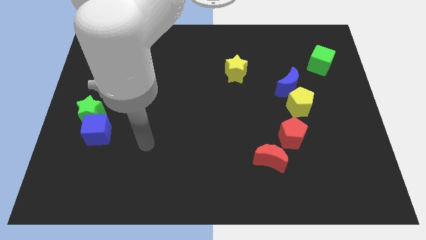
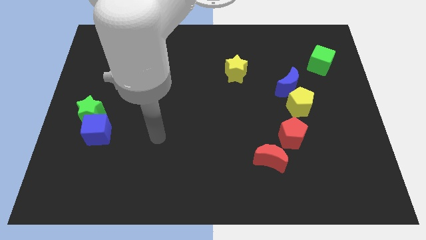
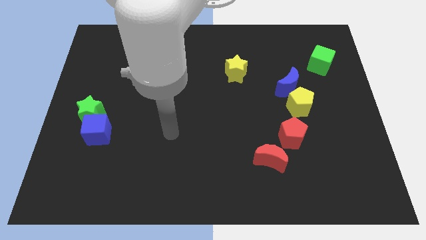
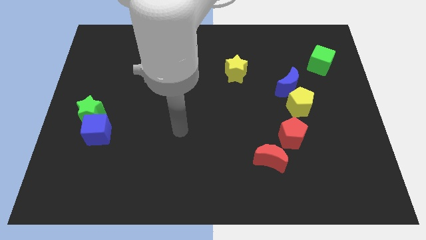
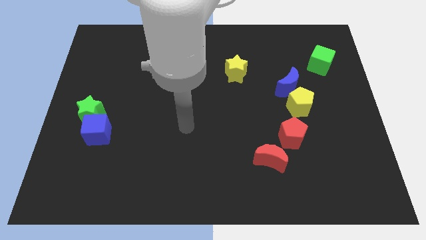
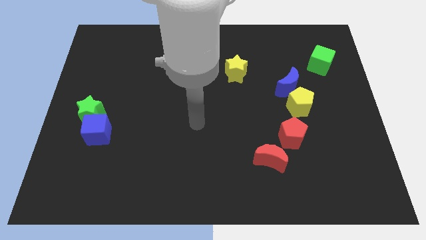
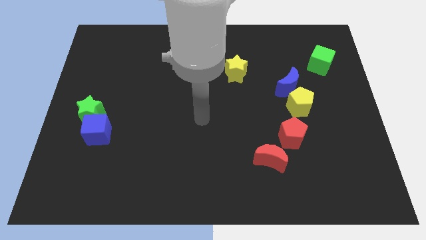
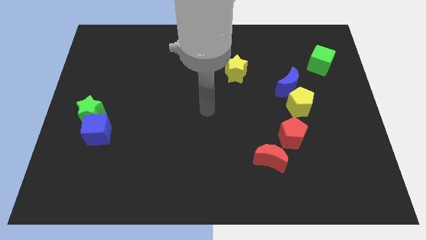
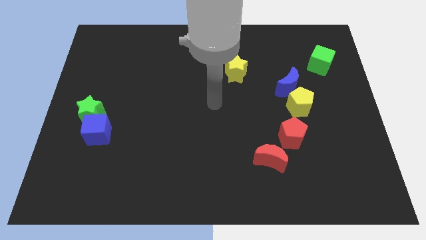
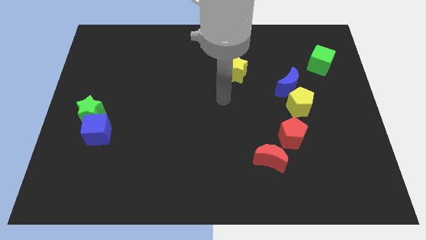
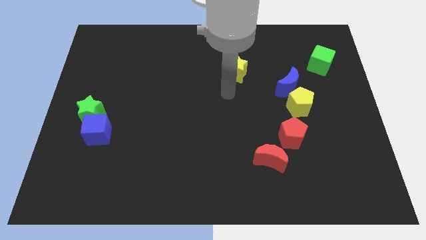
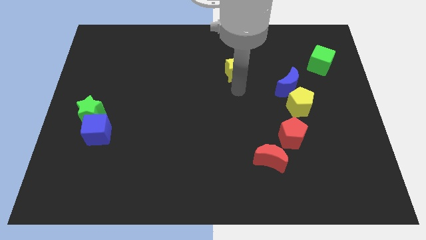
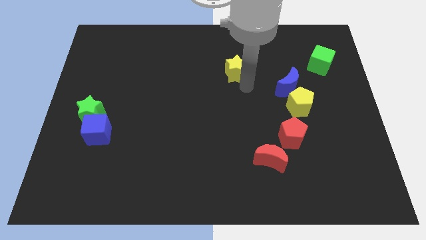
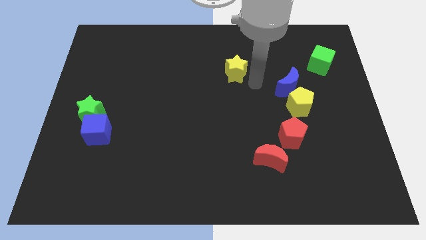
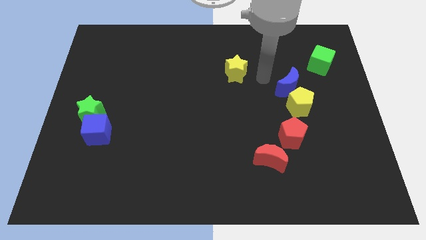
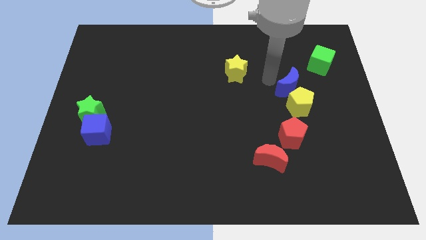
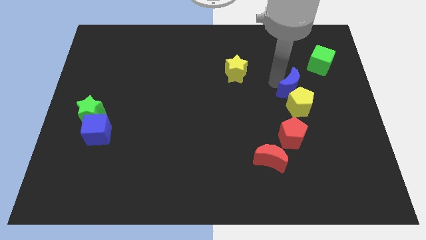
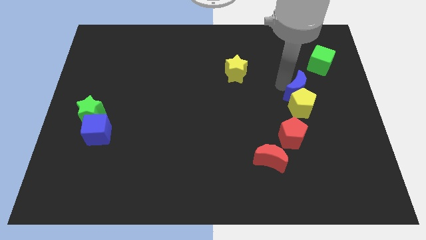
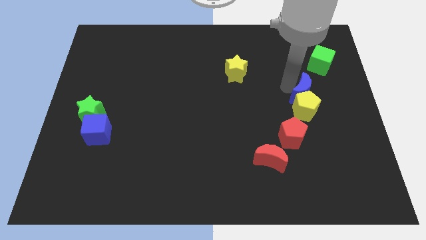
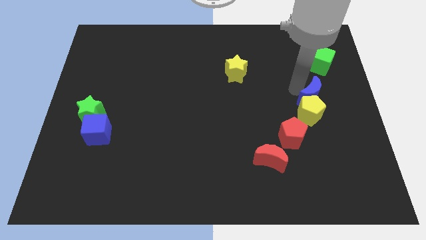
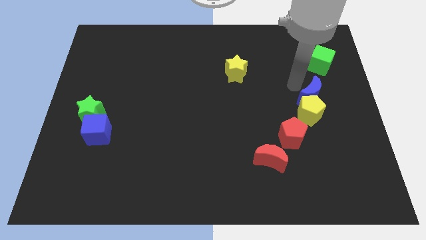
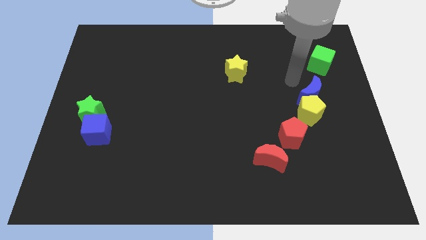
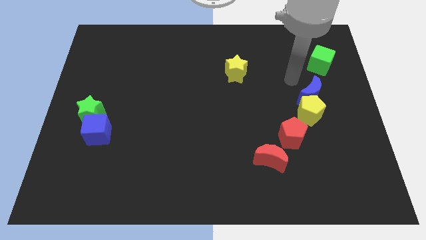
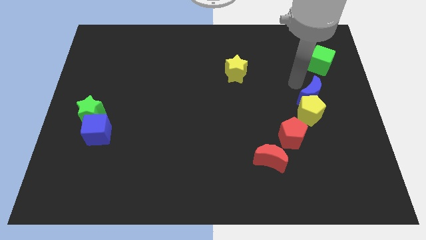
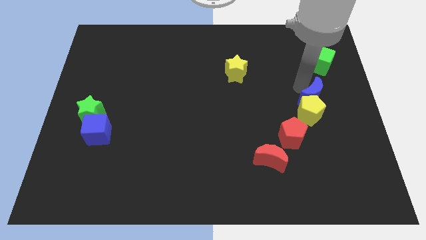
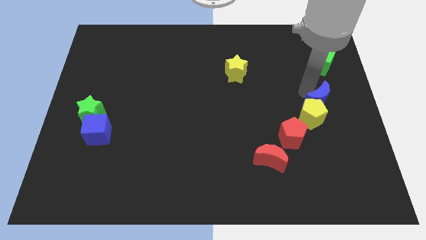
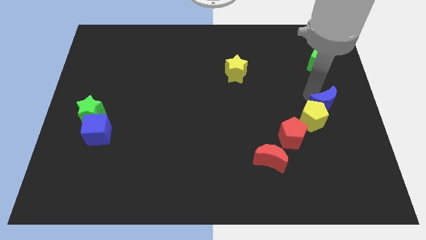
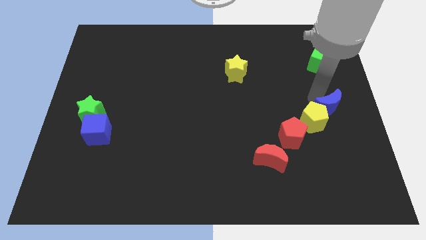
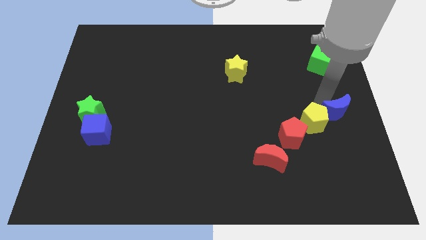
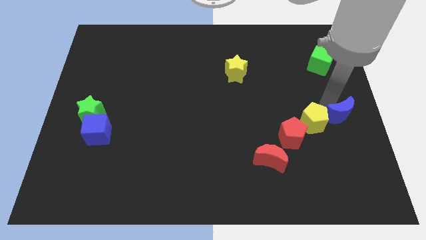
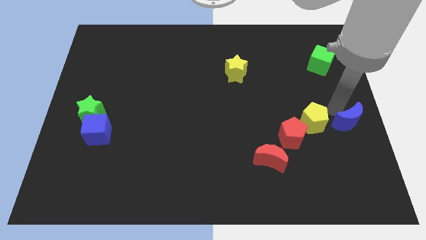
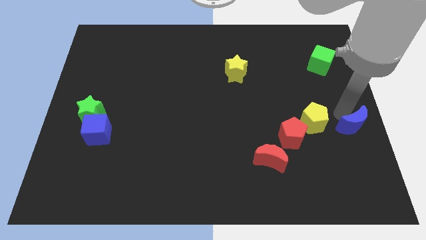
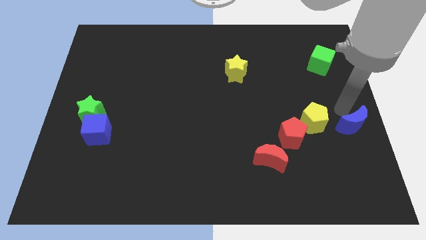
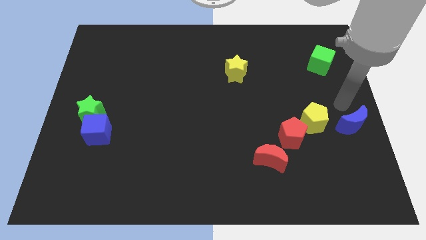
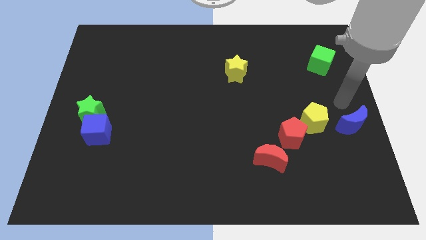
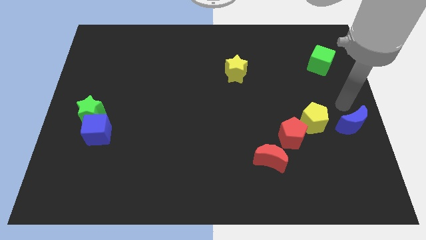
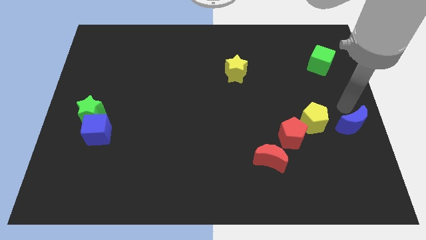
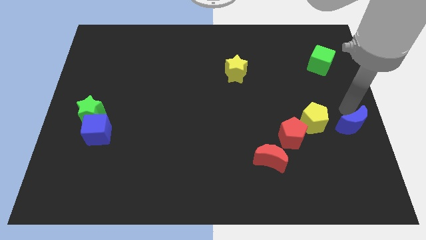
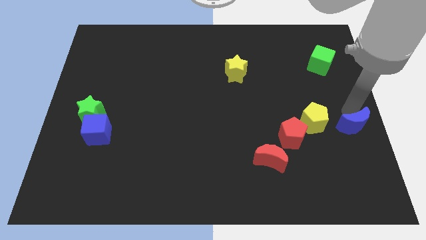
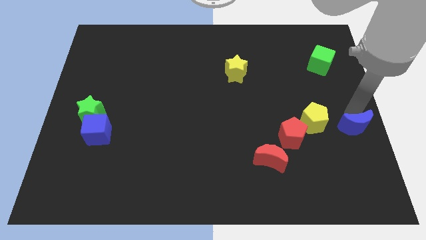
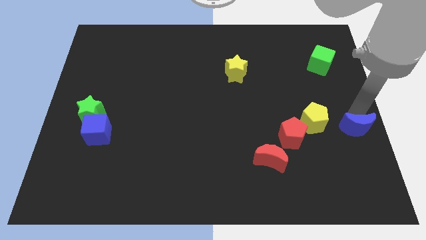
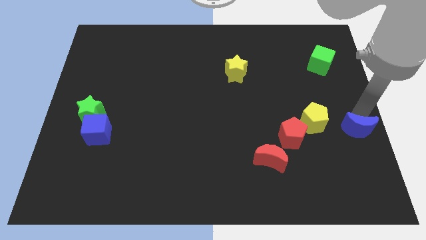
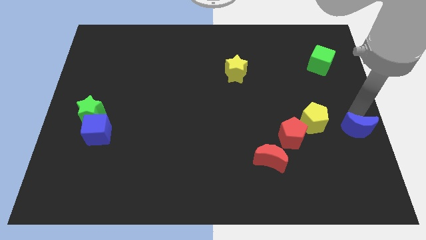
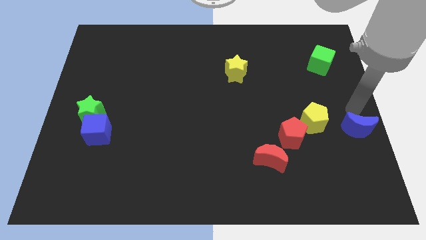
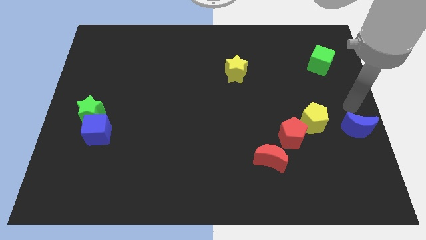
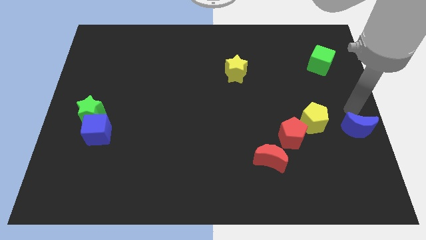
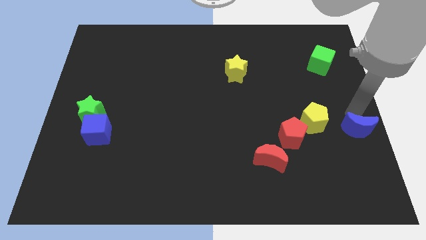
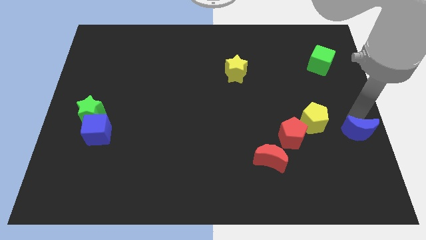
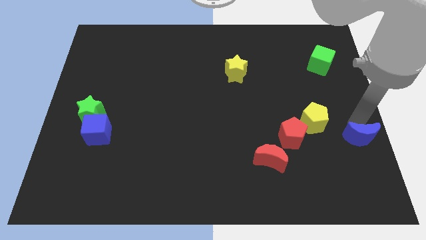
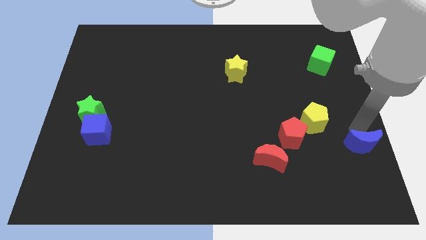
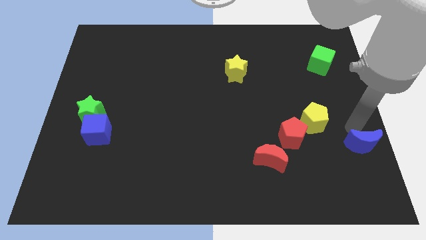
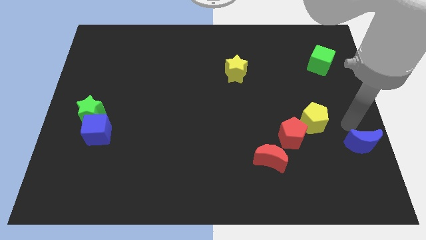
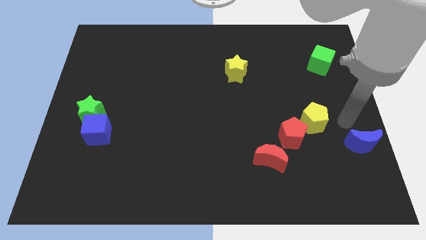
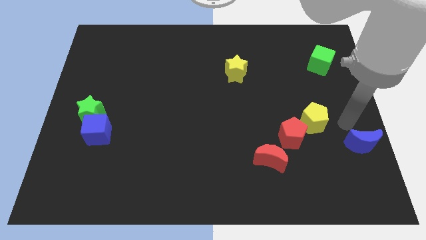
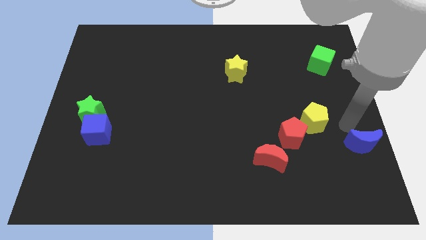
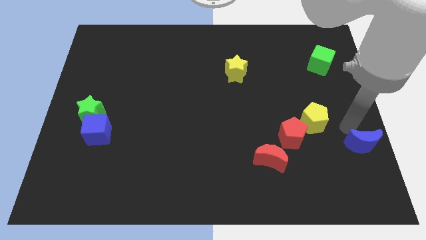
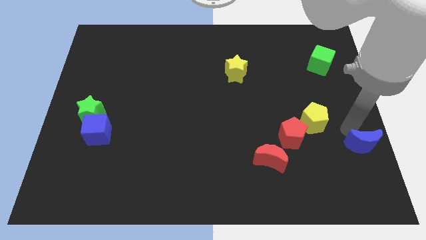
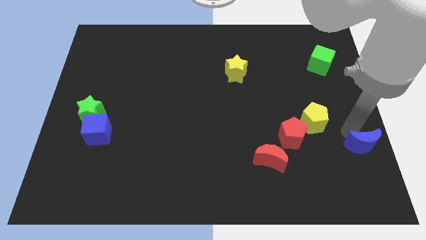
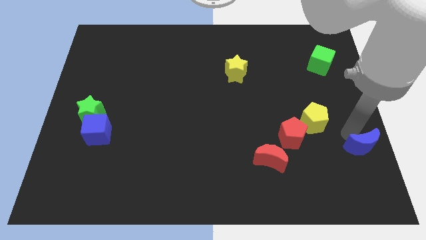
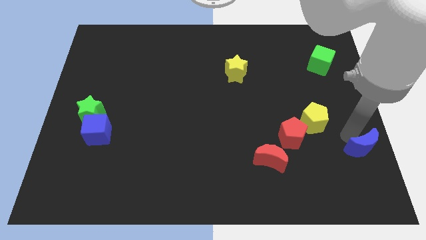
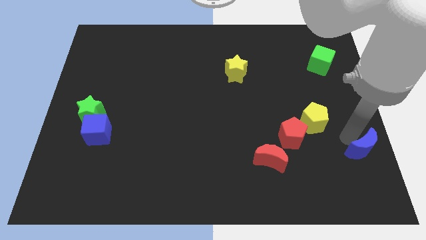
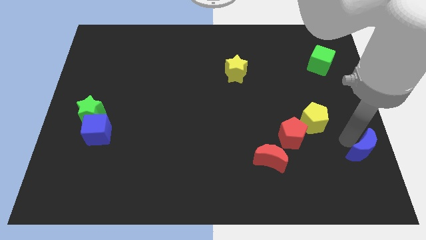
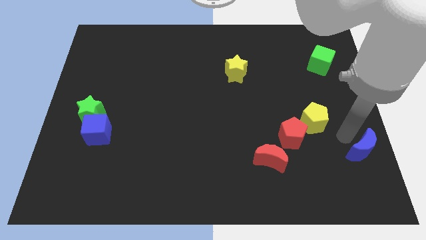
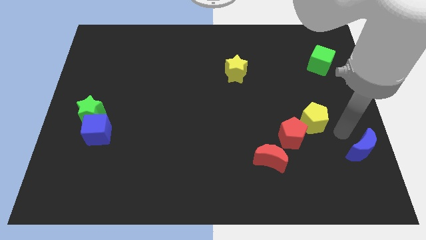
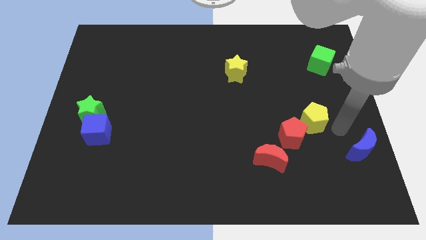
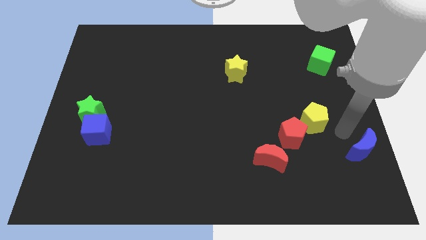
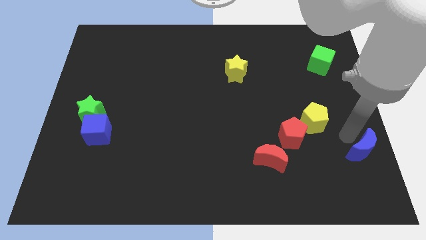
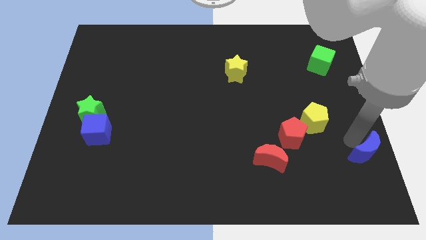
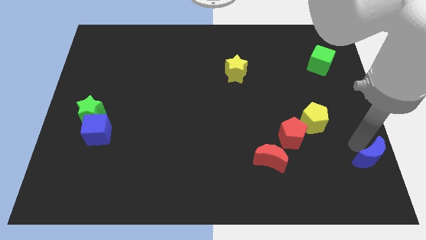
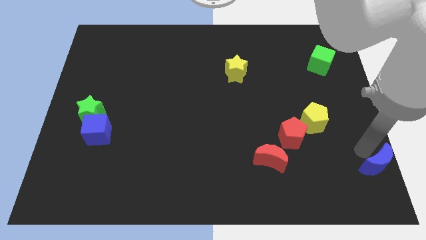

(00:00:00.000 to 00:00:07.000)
push the blue moon to the bottom right of the board

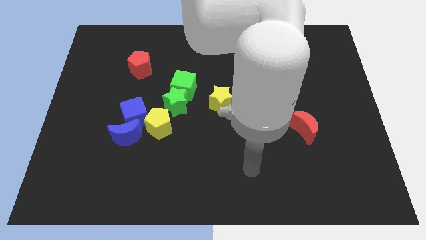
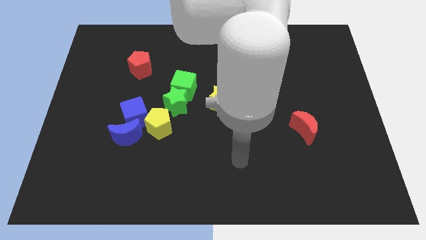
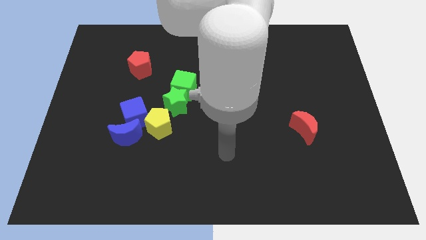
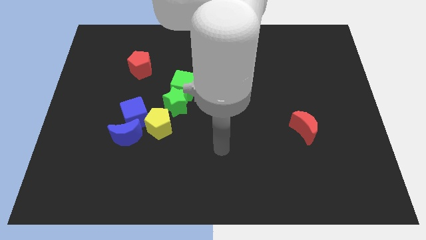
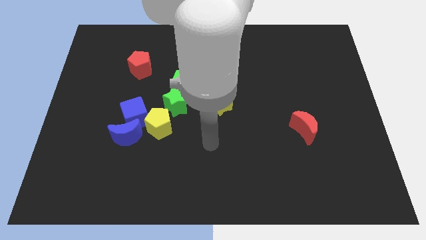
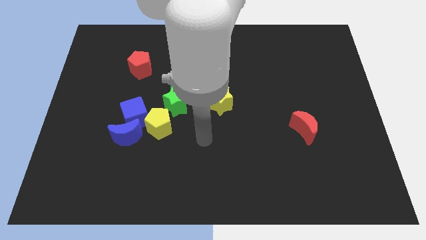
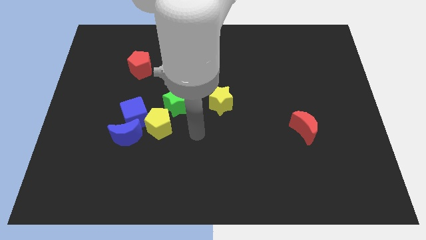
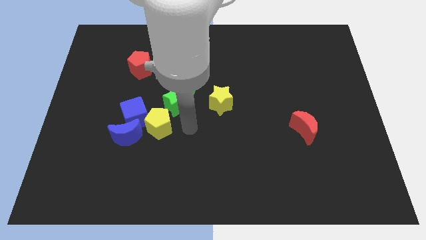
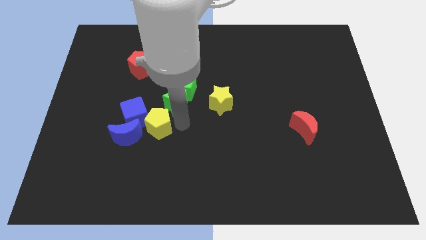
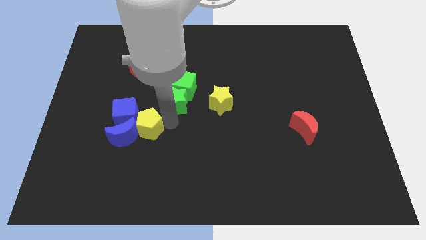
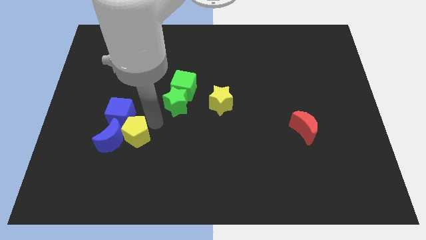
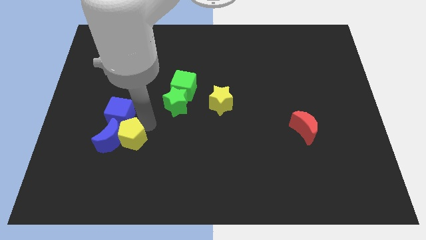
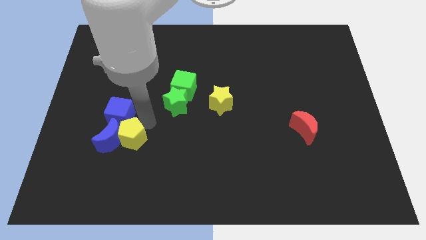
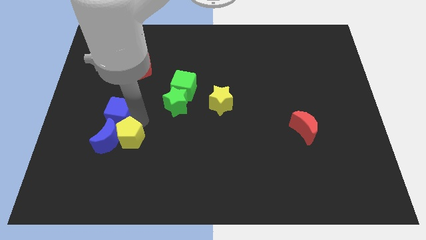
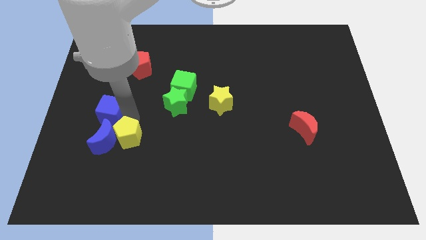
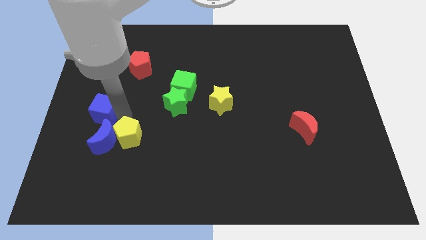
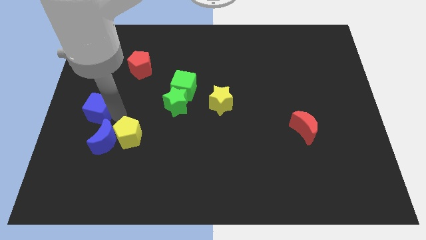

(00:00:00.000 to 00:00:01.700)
put the blue cube to the left side of the board
